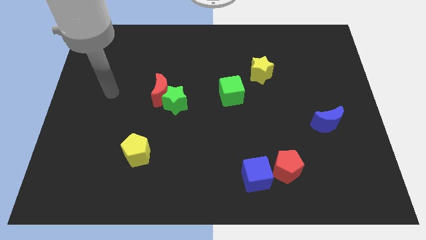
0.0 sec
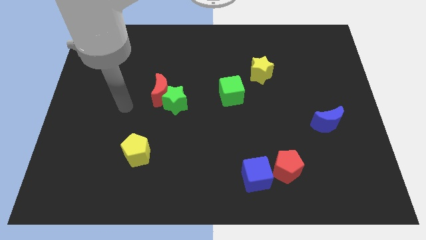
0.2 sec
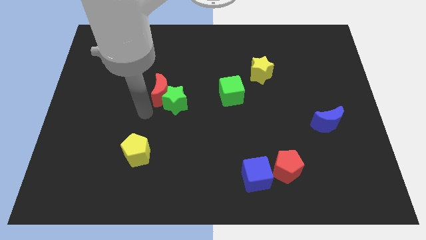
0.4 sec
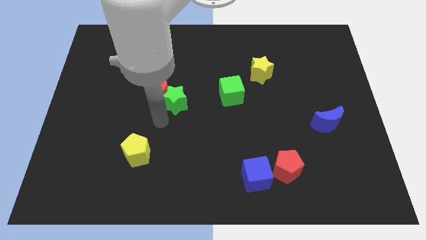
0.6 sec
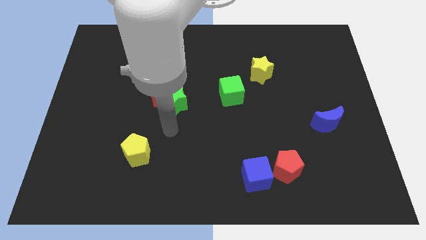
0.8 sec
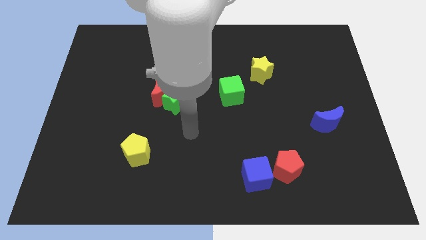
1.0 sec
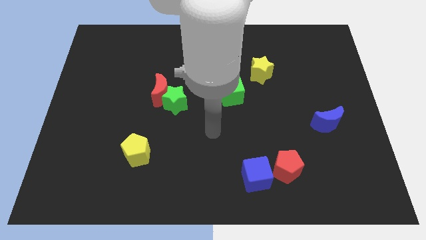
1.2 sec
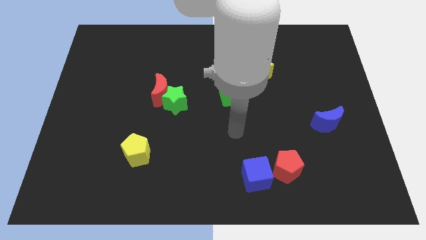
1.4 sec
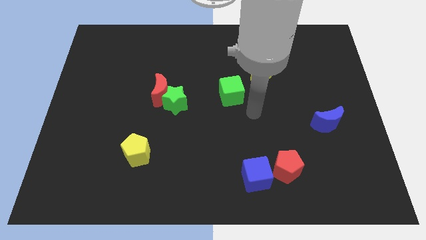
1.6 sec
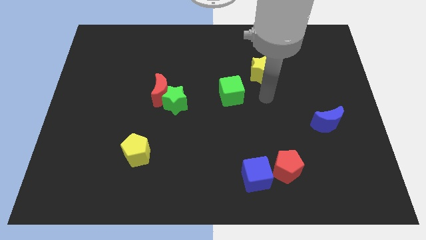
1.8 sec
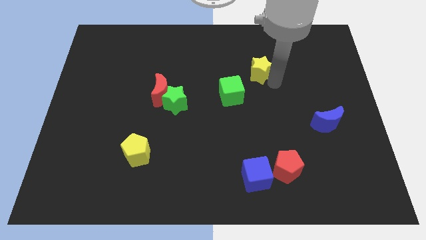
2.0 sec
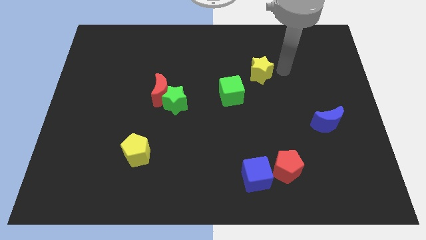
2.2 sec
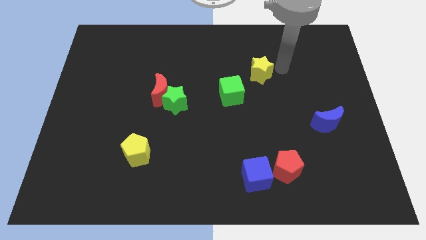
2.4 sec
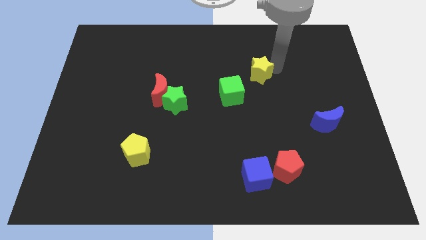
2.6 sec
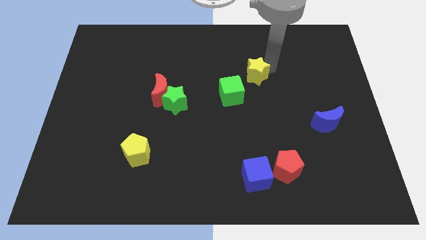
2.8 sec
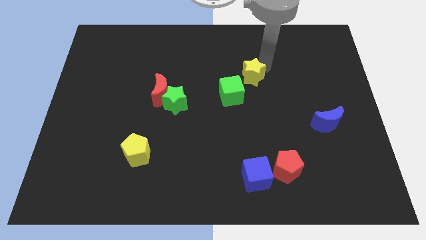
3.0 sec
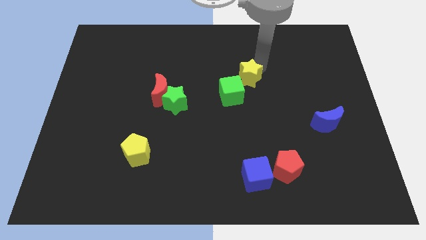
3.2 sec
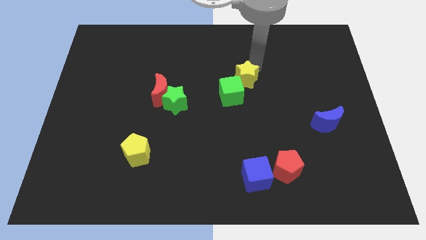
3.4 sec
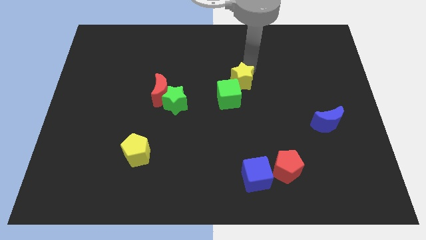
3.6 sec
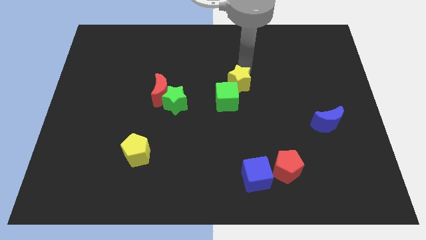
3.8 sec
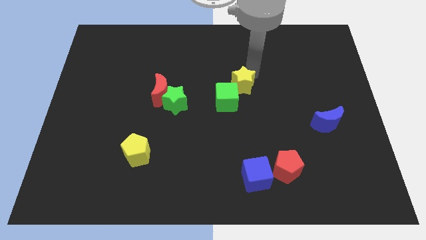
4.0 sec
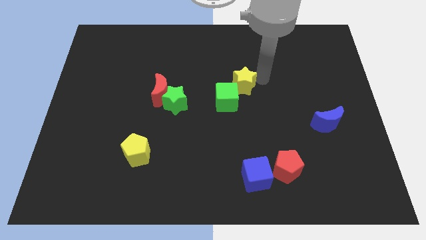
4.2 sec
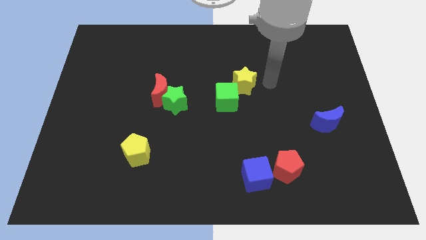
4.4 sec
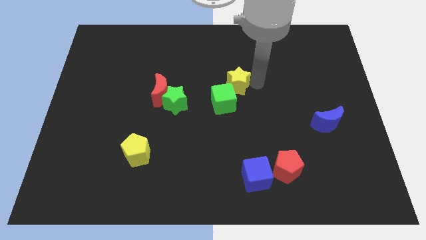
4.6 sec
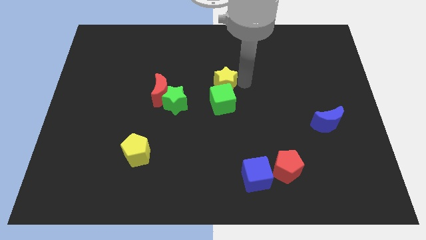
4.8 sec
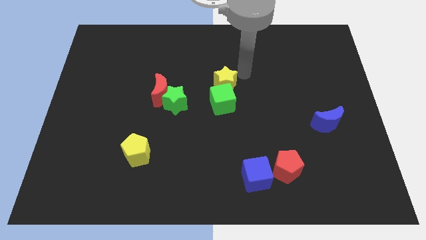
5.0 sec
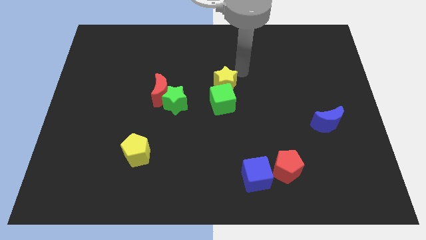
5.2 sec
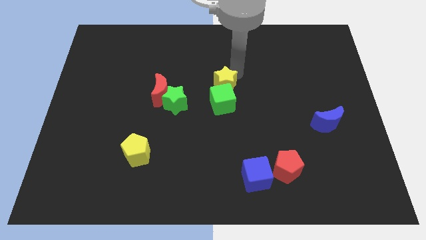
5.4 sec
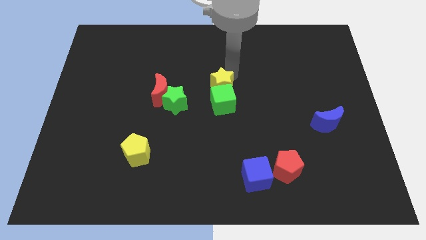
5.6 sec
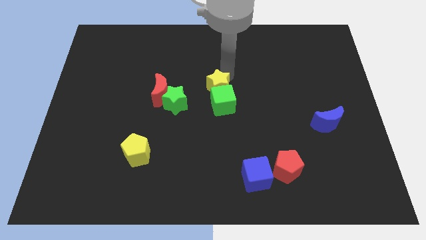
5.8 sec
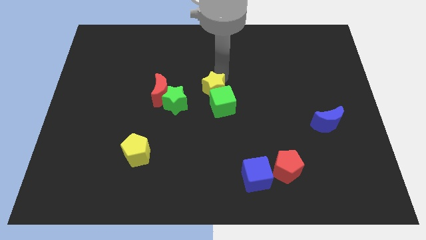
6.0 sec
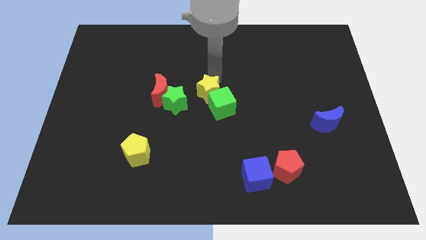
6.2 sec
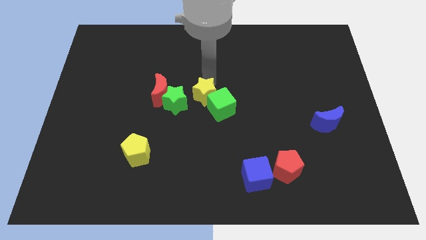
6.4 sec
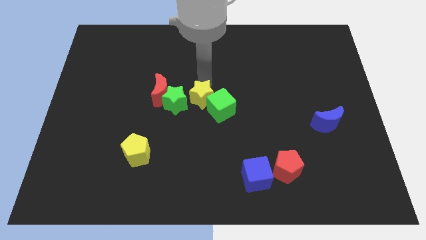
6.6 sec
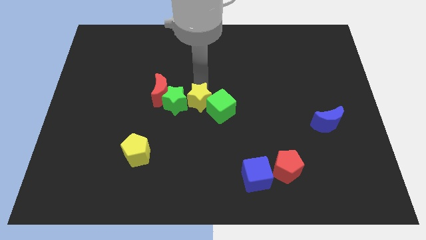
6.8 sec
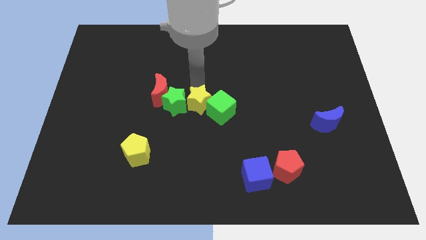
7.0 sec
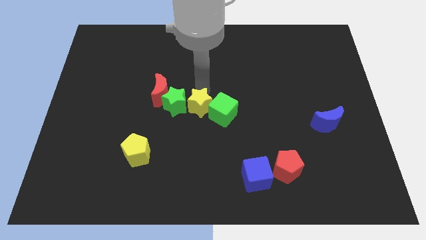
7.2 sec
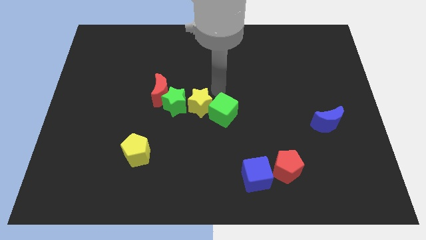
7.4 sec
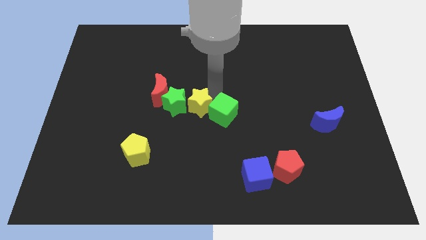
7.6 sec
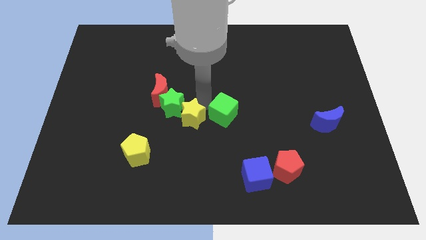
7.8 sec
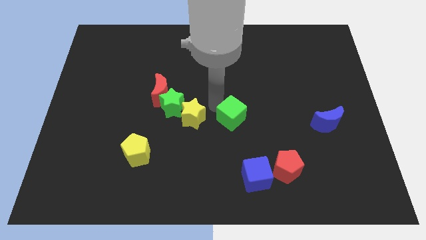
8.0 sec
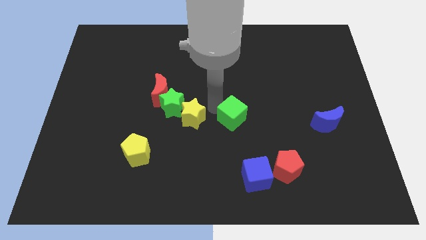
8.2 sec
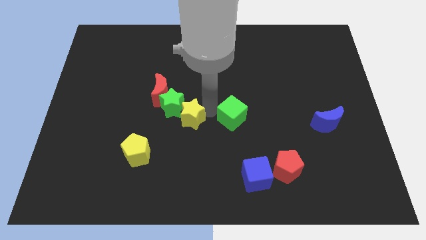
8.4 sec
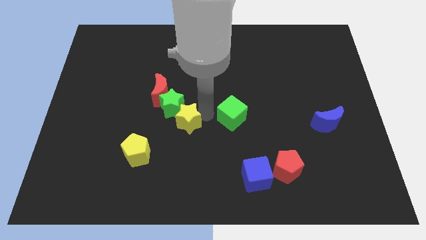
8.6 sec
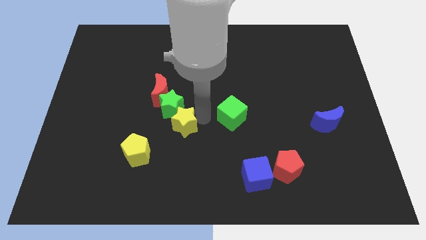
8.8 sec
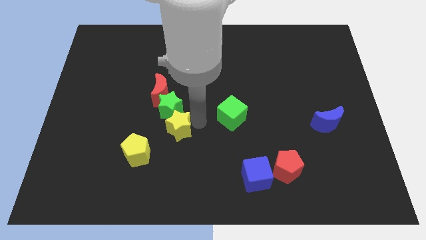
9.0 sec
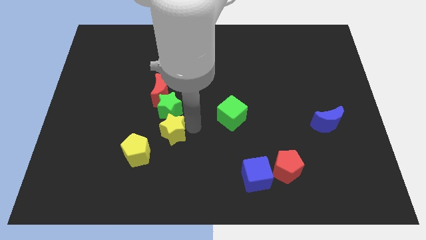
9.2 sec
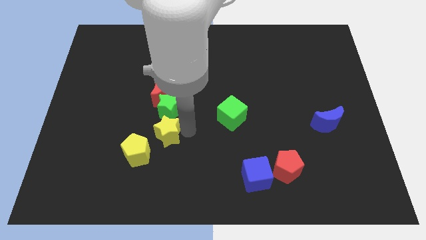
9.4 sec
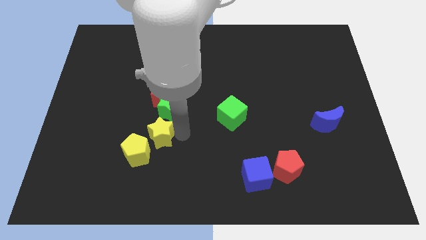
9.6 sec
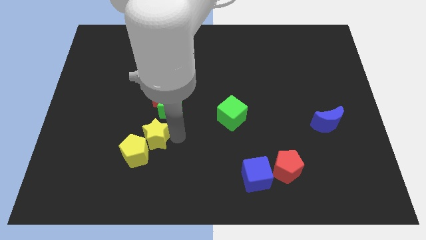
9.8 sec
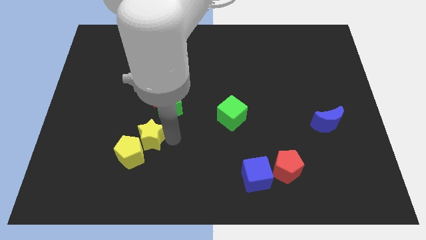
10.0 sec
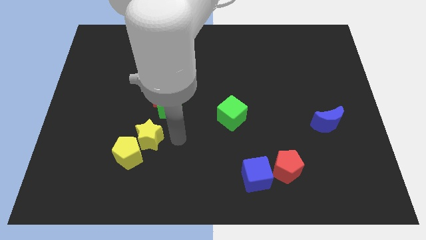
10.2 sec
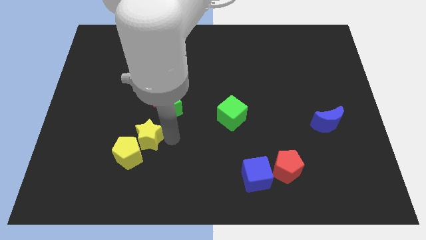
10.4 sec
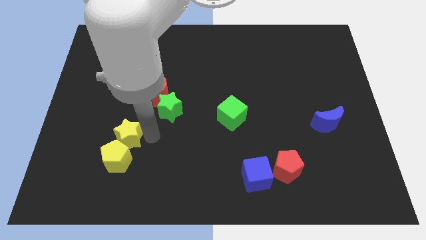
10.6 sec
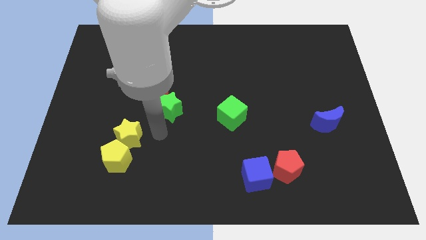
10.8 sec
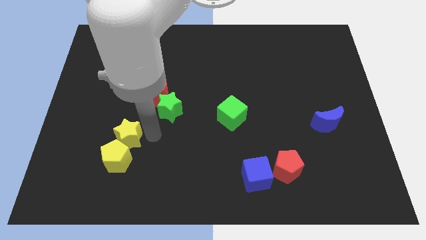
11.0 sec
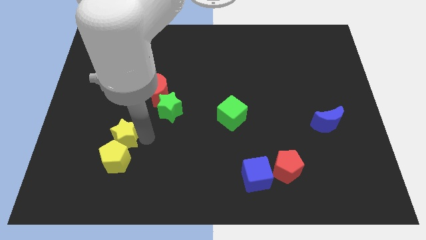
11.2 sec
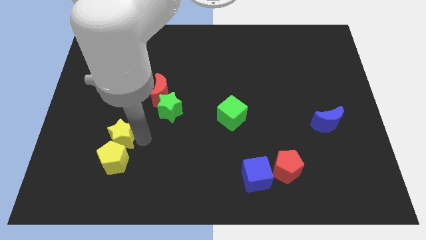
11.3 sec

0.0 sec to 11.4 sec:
move the yellow star to the top left side of the yellow pentagon

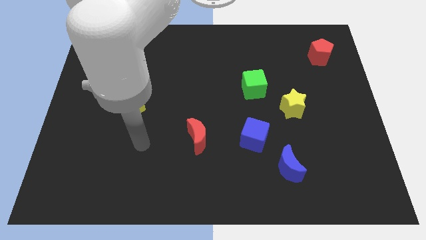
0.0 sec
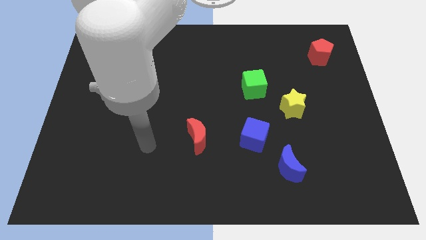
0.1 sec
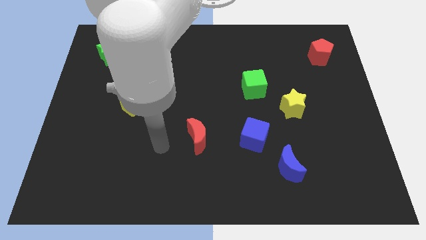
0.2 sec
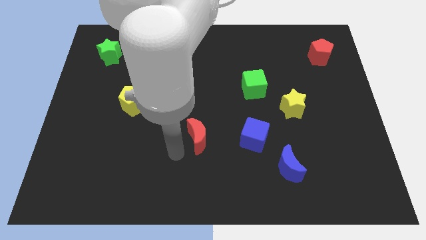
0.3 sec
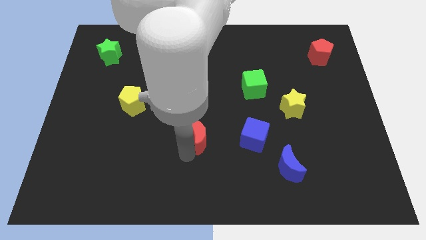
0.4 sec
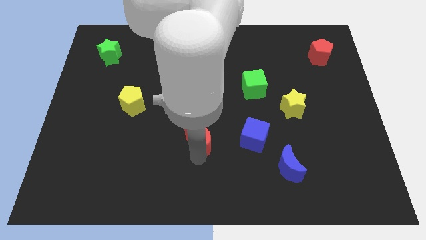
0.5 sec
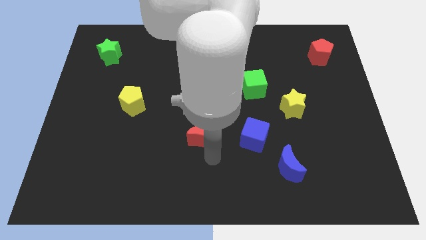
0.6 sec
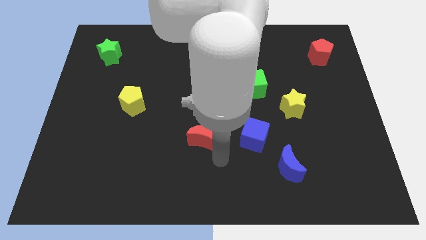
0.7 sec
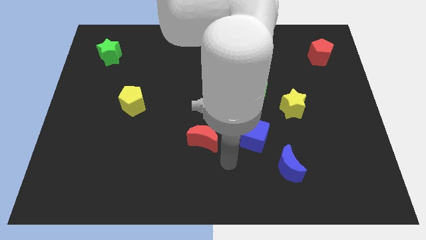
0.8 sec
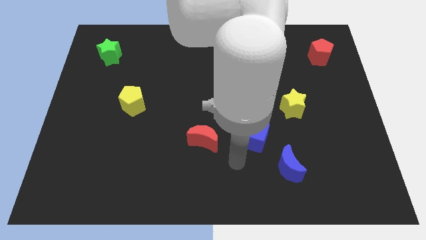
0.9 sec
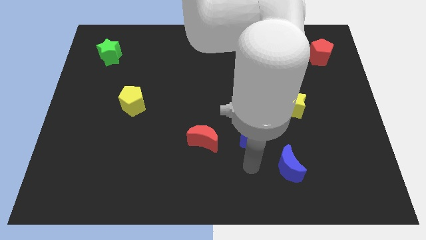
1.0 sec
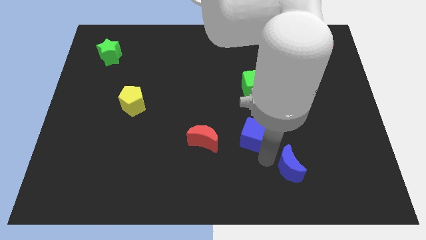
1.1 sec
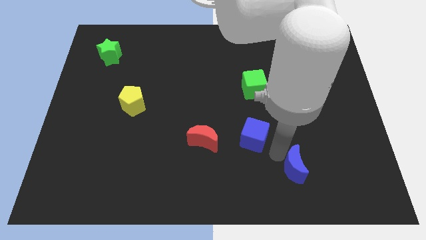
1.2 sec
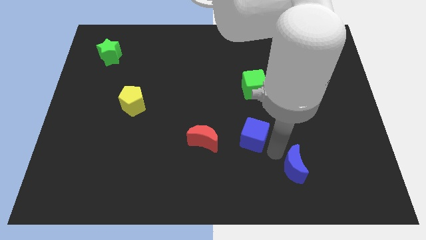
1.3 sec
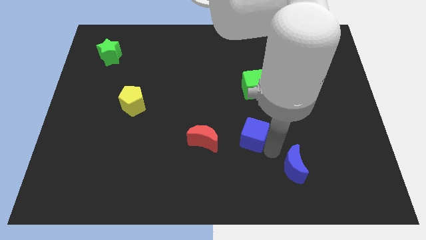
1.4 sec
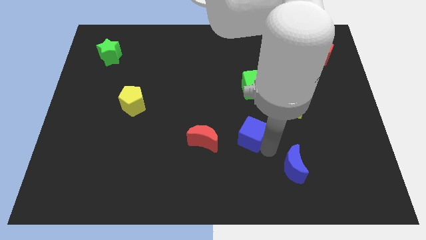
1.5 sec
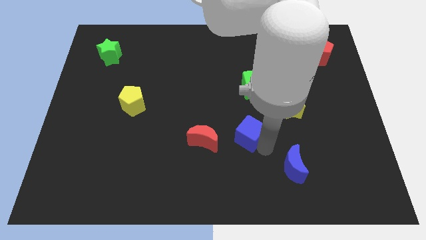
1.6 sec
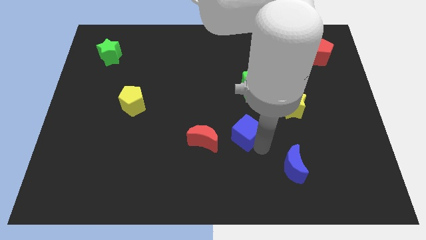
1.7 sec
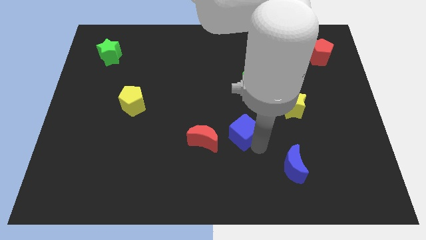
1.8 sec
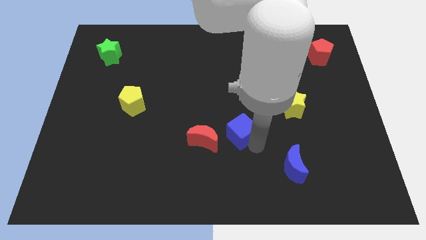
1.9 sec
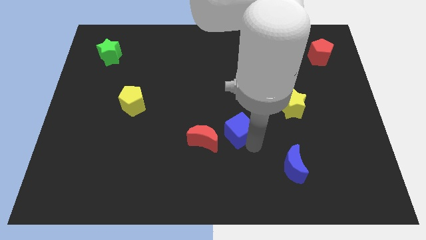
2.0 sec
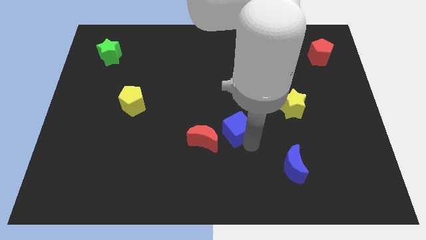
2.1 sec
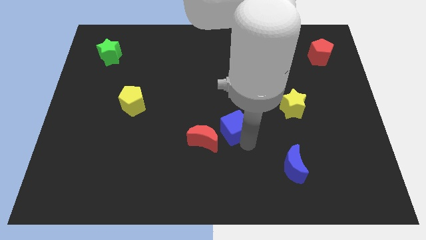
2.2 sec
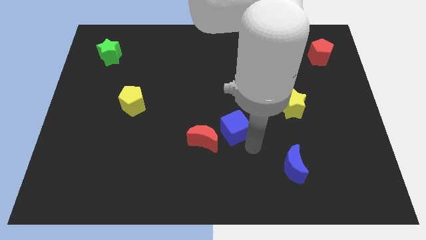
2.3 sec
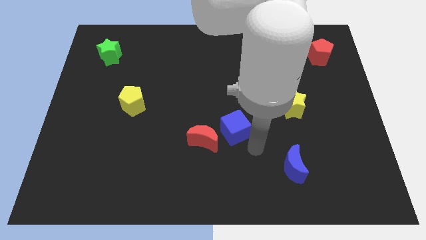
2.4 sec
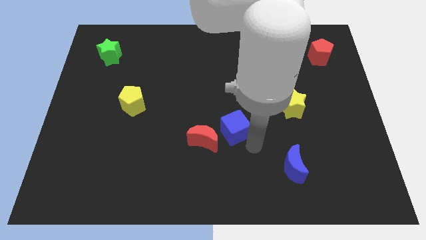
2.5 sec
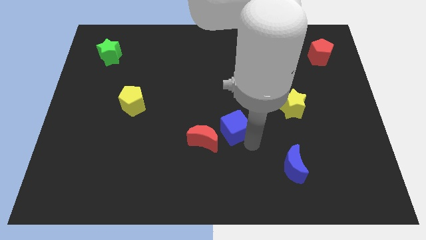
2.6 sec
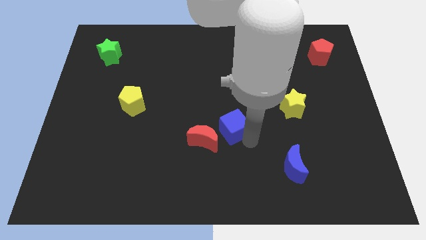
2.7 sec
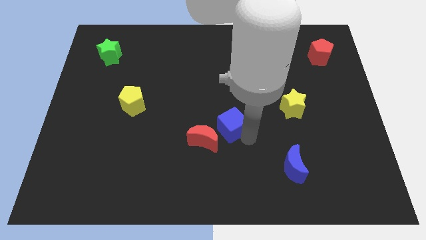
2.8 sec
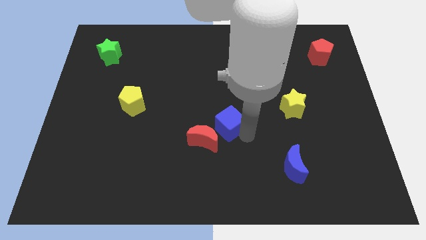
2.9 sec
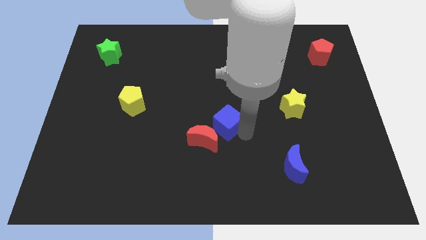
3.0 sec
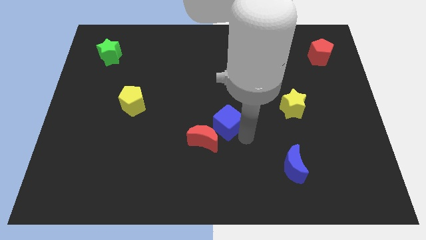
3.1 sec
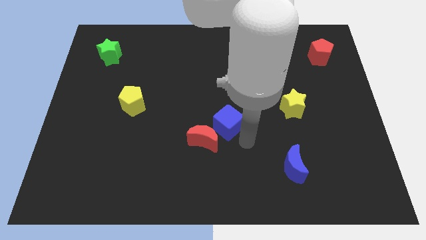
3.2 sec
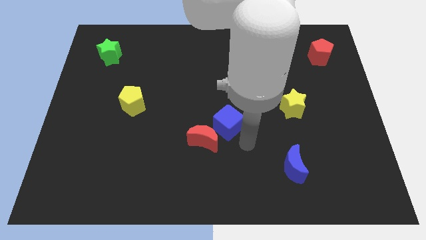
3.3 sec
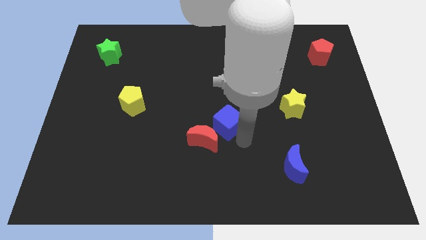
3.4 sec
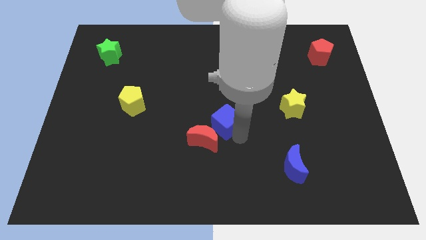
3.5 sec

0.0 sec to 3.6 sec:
slide the blue cube to the top side of the red moon
